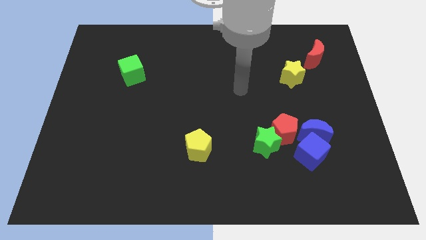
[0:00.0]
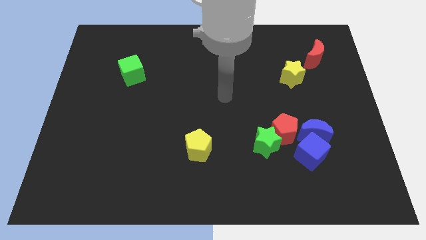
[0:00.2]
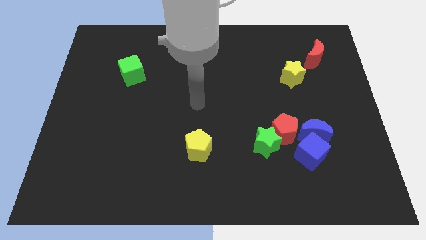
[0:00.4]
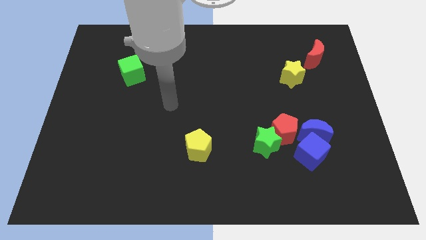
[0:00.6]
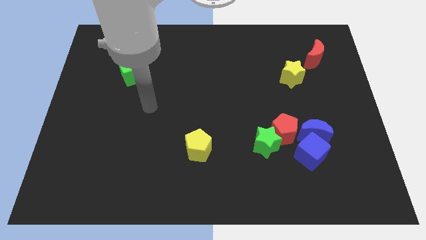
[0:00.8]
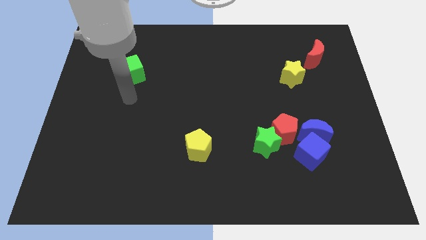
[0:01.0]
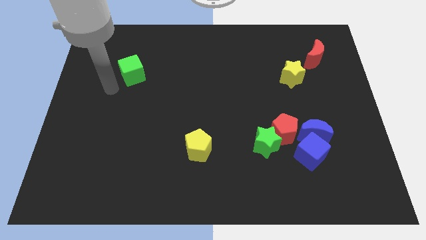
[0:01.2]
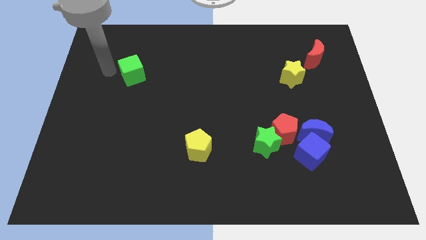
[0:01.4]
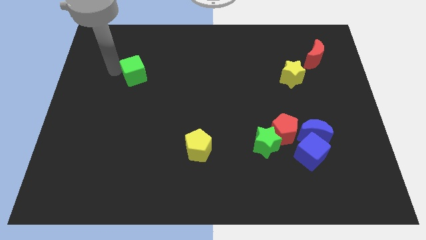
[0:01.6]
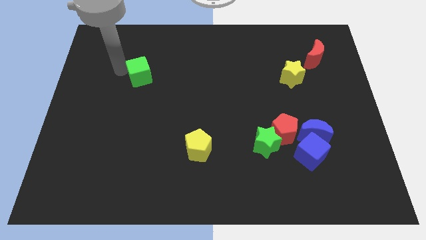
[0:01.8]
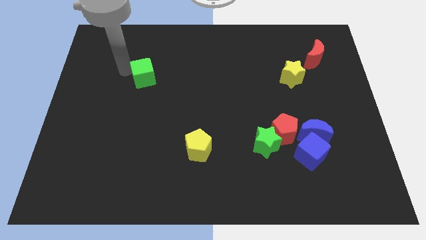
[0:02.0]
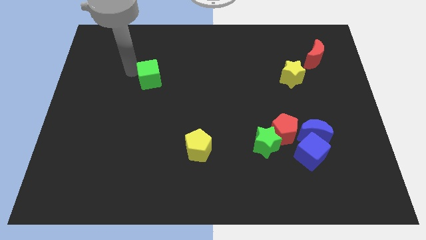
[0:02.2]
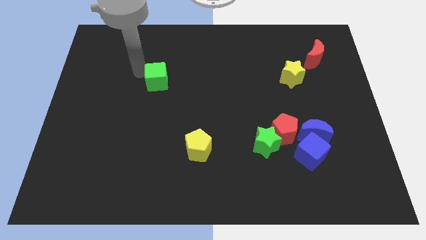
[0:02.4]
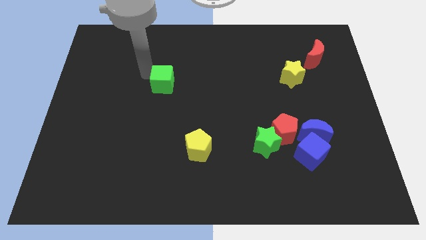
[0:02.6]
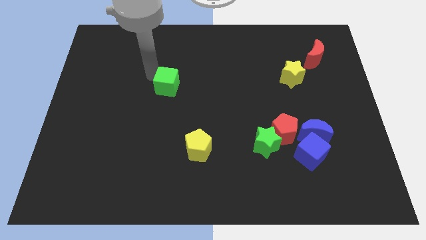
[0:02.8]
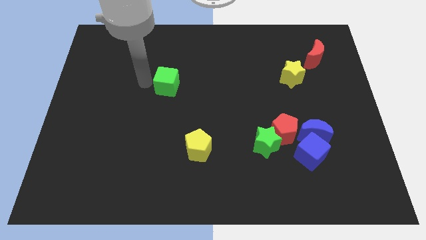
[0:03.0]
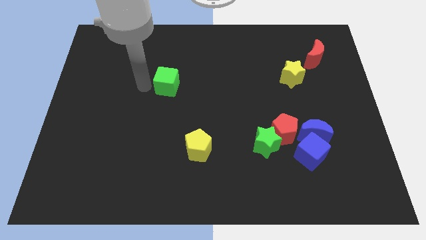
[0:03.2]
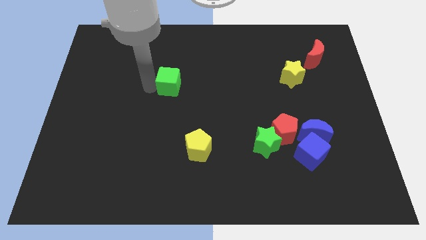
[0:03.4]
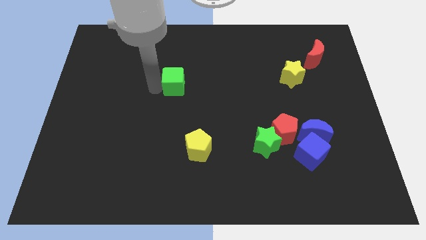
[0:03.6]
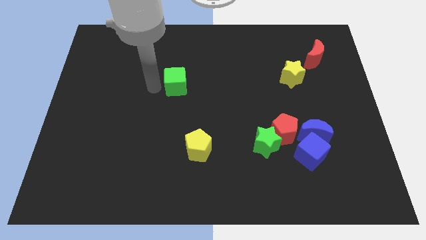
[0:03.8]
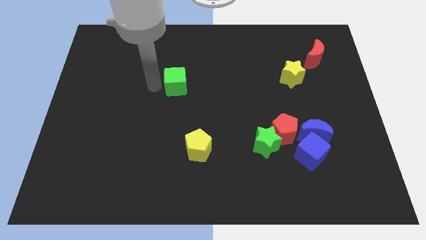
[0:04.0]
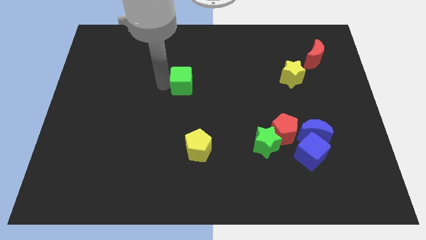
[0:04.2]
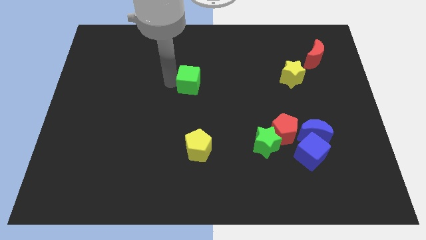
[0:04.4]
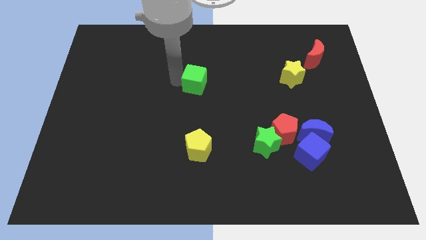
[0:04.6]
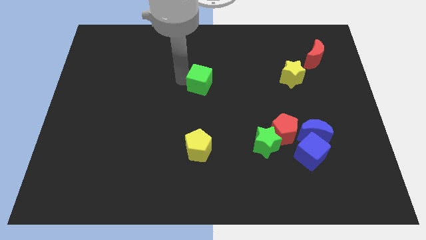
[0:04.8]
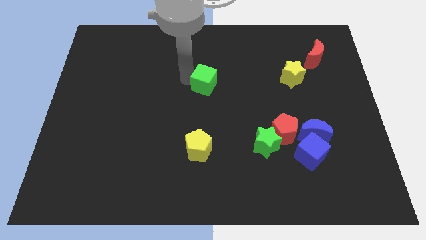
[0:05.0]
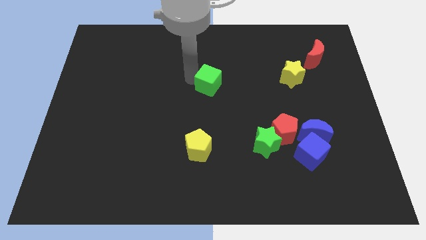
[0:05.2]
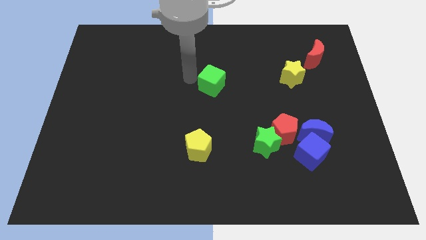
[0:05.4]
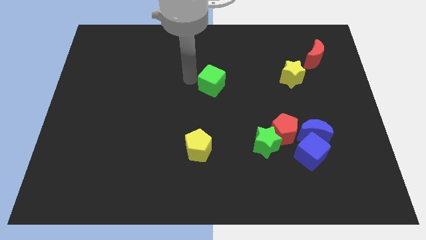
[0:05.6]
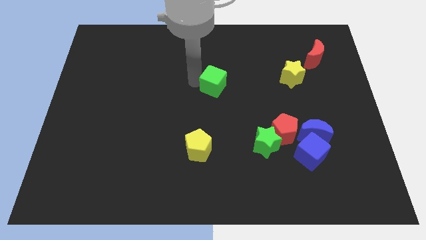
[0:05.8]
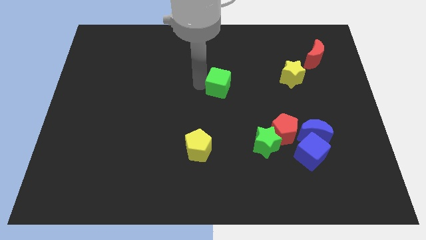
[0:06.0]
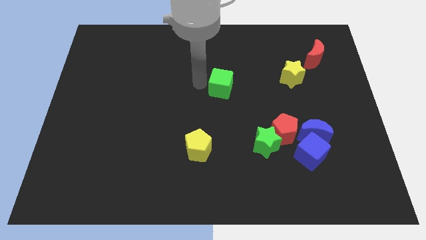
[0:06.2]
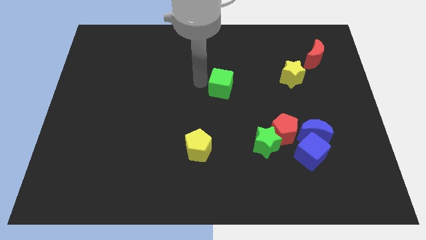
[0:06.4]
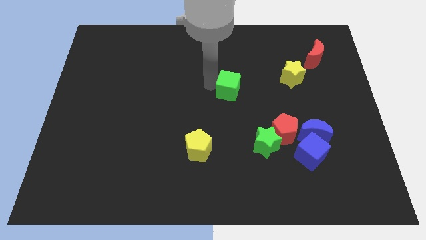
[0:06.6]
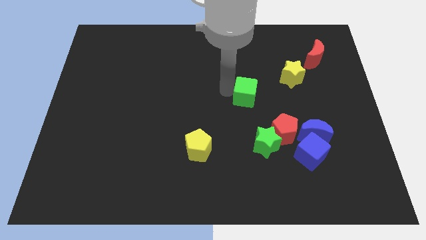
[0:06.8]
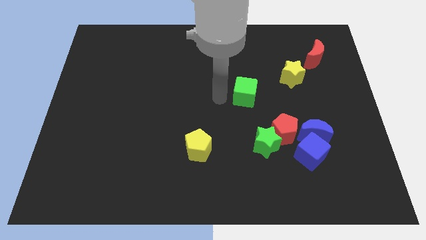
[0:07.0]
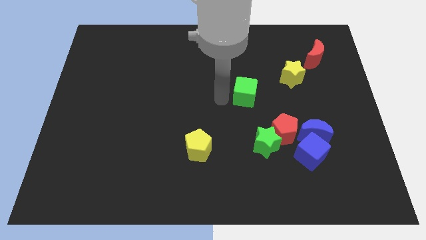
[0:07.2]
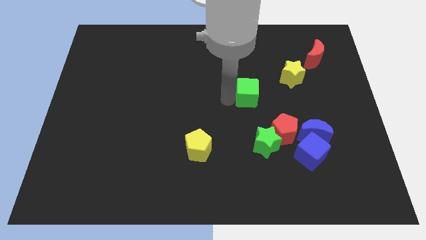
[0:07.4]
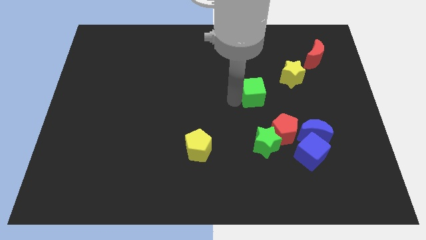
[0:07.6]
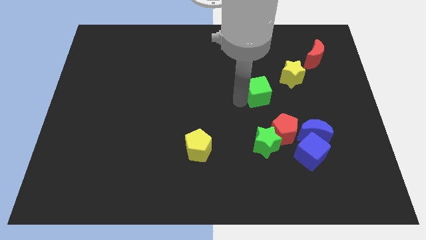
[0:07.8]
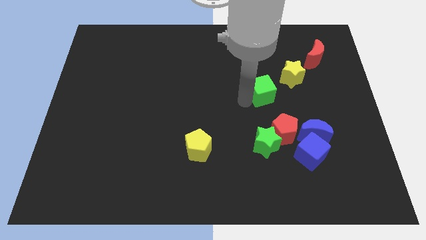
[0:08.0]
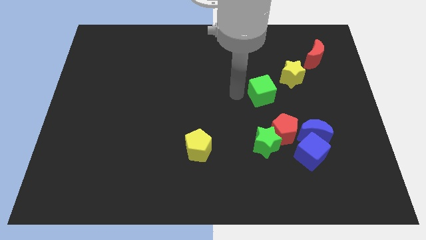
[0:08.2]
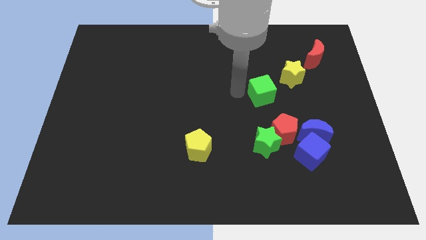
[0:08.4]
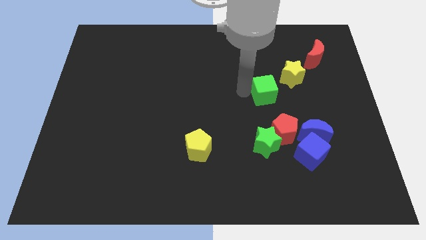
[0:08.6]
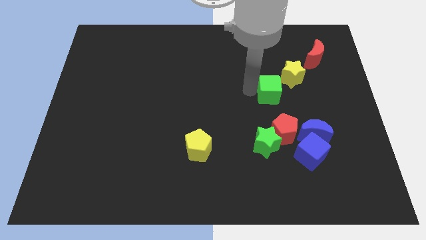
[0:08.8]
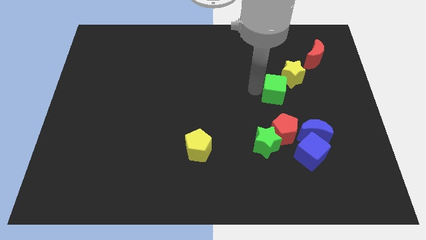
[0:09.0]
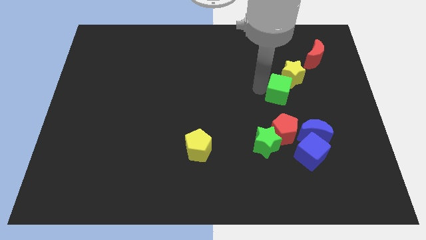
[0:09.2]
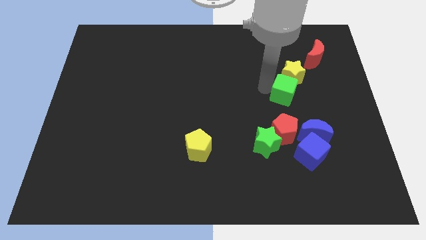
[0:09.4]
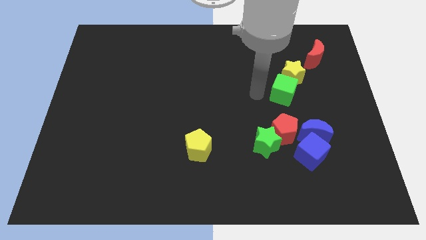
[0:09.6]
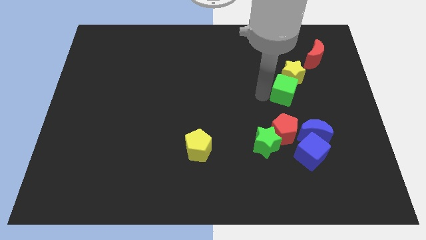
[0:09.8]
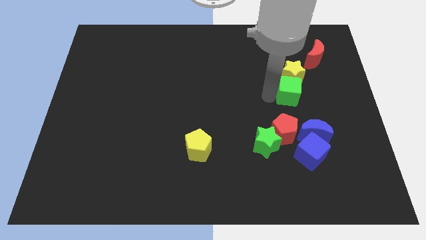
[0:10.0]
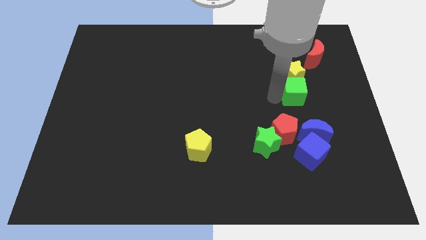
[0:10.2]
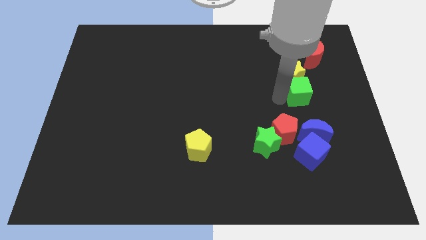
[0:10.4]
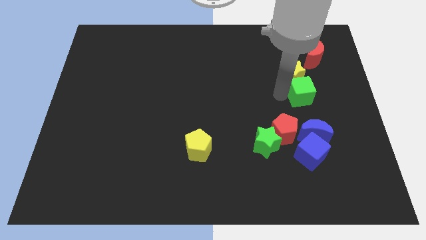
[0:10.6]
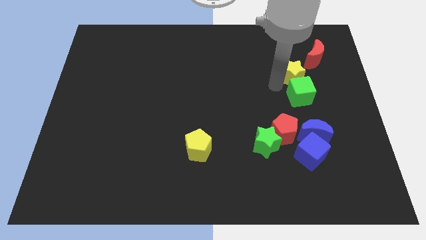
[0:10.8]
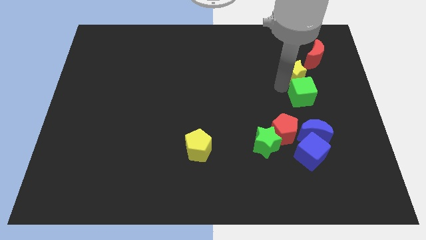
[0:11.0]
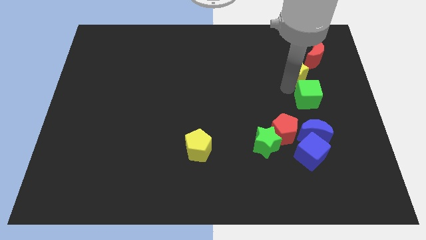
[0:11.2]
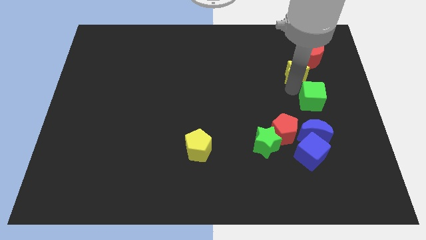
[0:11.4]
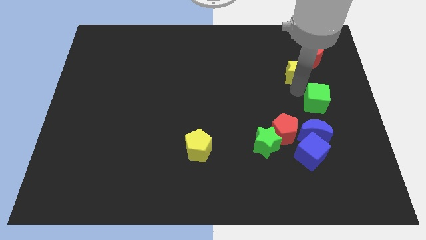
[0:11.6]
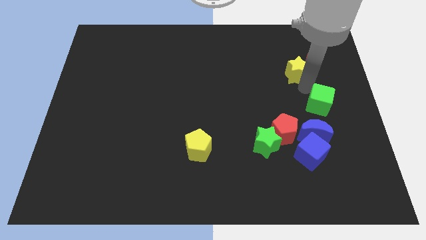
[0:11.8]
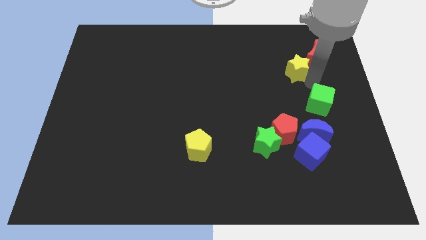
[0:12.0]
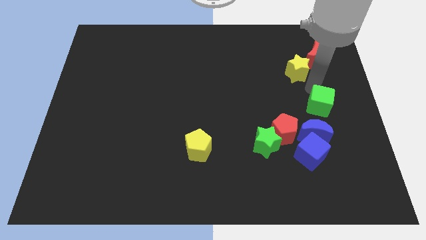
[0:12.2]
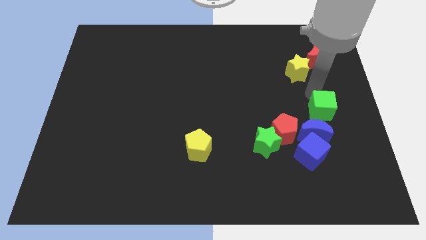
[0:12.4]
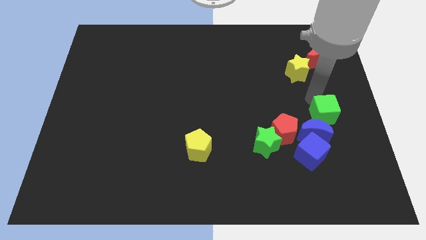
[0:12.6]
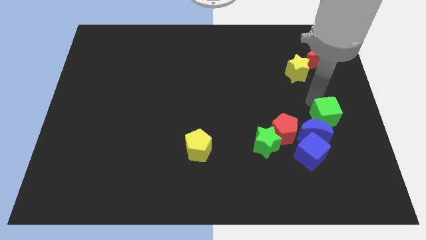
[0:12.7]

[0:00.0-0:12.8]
push the green cube just right of the red pentagon

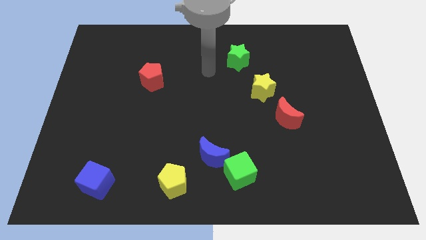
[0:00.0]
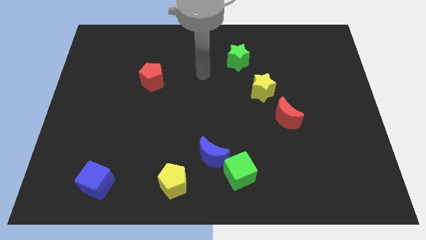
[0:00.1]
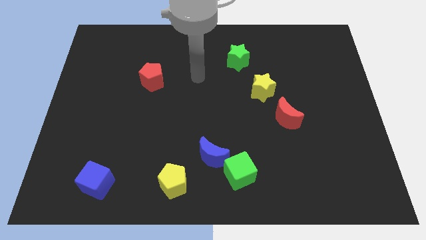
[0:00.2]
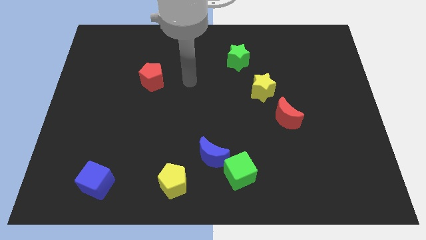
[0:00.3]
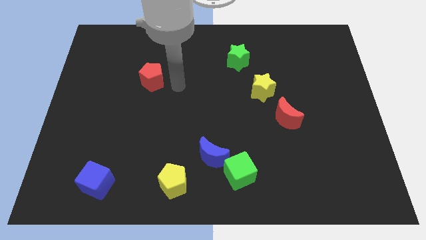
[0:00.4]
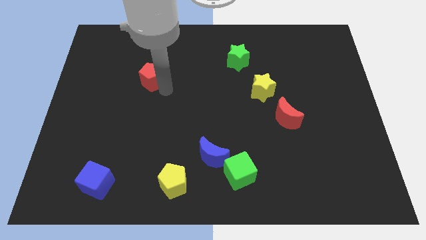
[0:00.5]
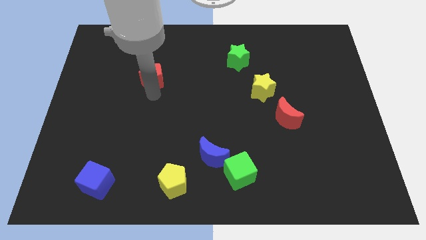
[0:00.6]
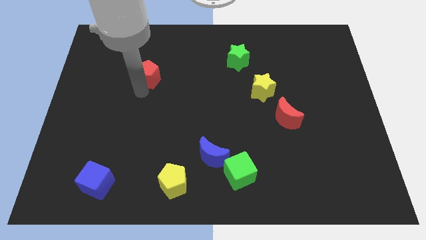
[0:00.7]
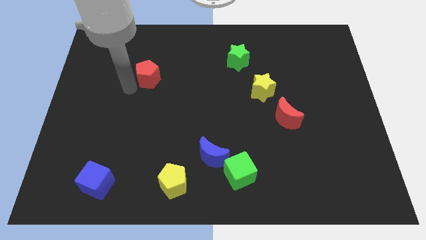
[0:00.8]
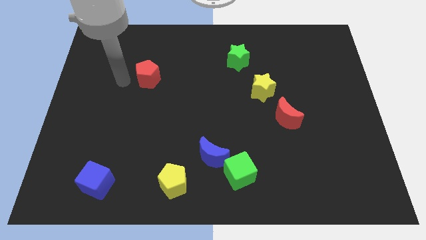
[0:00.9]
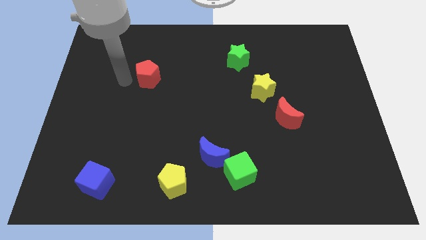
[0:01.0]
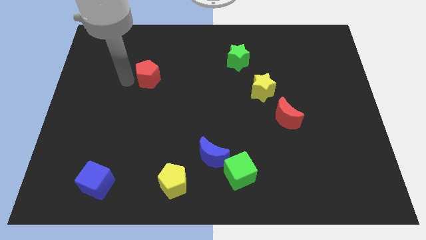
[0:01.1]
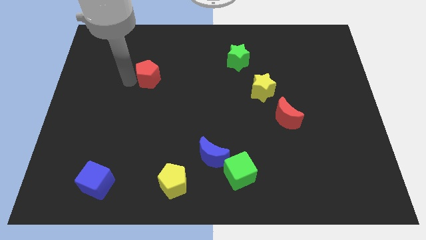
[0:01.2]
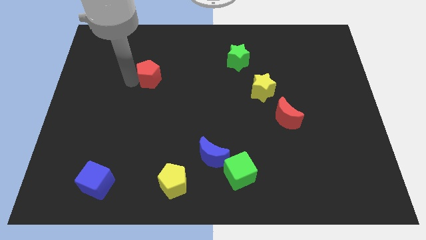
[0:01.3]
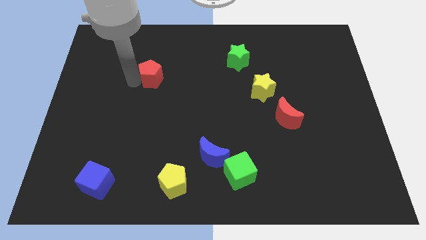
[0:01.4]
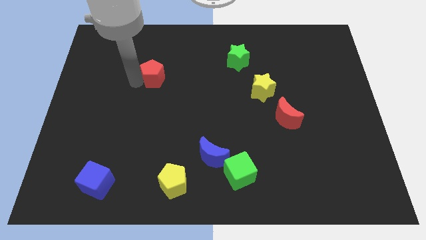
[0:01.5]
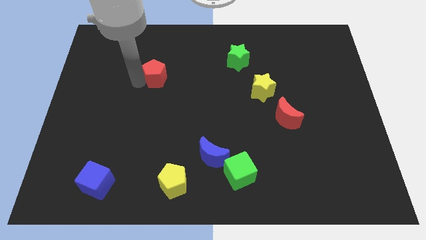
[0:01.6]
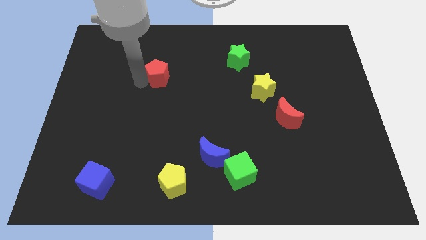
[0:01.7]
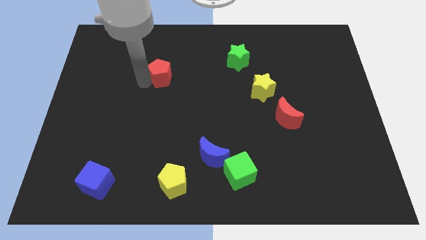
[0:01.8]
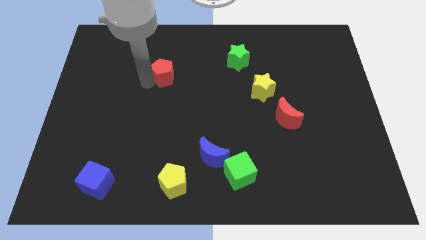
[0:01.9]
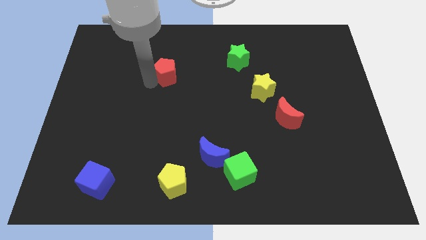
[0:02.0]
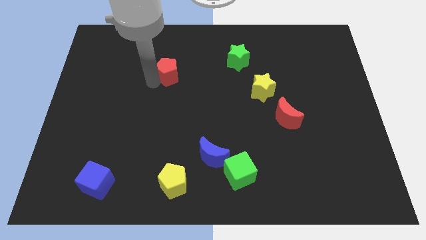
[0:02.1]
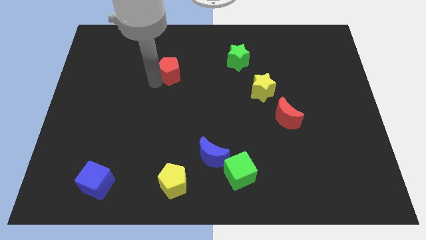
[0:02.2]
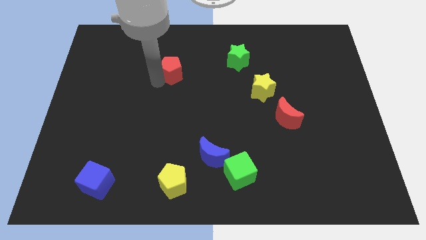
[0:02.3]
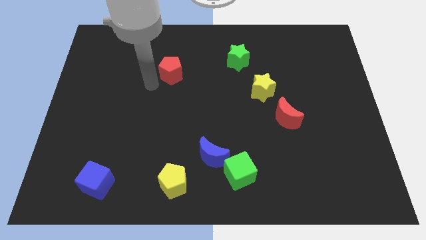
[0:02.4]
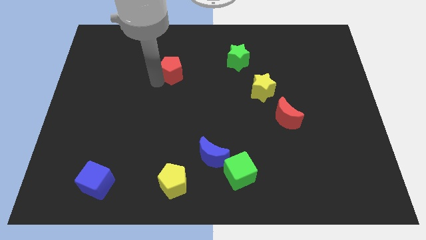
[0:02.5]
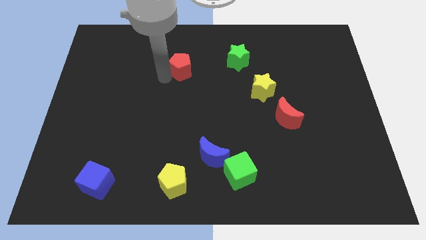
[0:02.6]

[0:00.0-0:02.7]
move the red pentagon to the left of the green star
